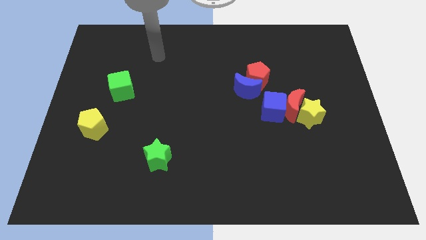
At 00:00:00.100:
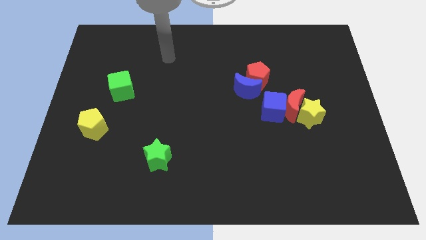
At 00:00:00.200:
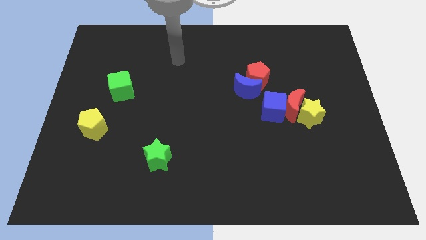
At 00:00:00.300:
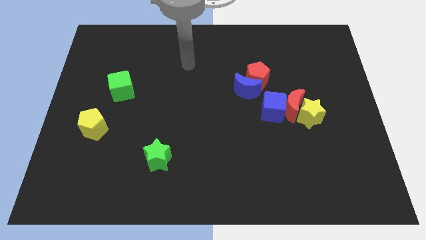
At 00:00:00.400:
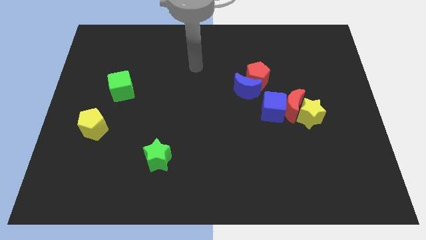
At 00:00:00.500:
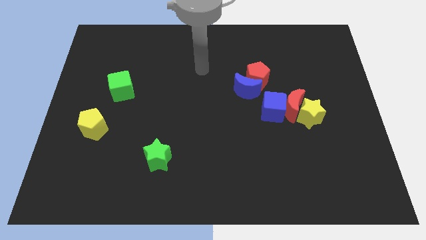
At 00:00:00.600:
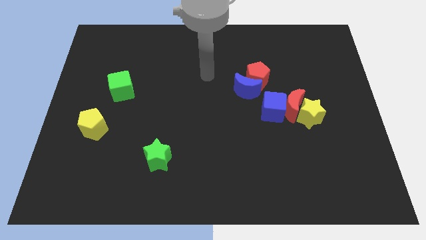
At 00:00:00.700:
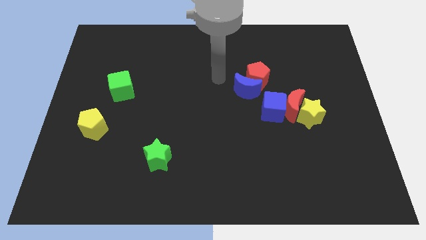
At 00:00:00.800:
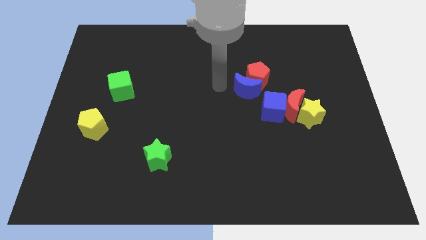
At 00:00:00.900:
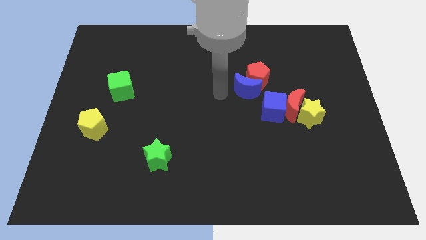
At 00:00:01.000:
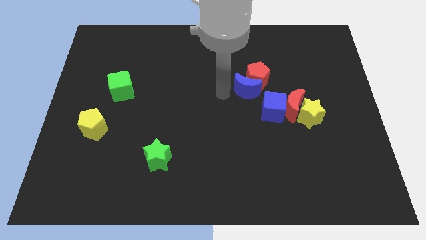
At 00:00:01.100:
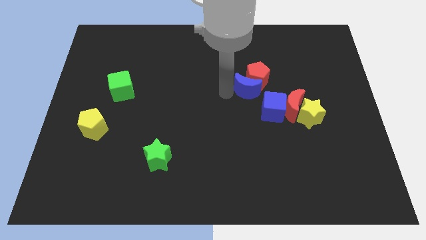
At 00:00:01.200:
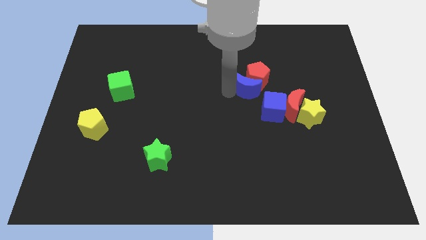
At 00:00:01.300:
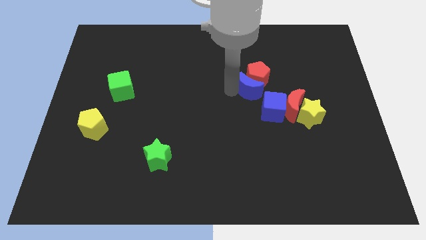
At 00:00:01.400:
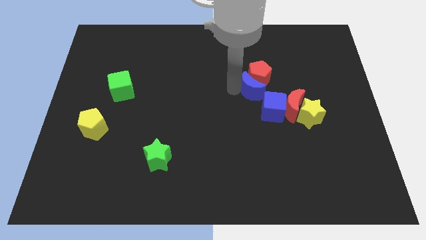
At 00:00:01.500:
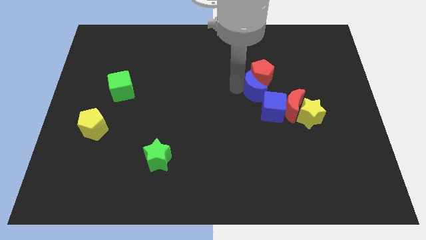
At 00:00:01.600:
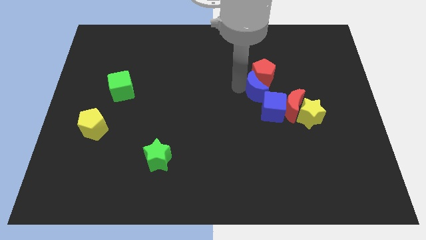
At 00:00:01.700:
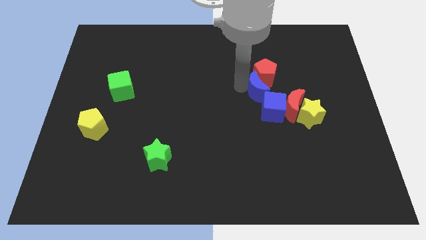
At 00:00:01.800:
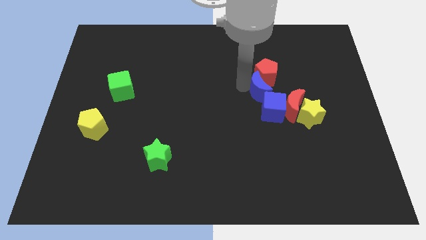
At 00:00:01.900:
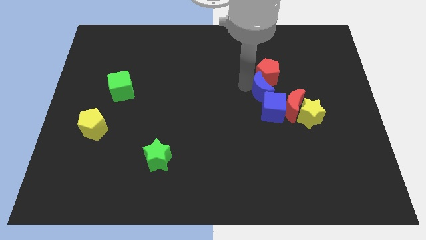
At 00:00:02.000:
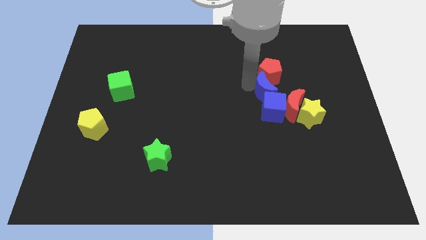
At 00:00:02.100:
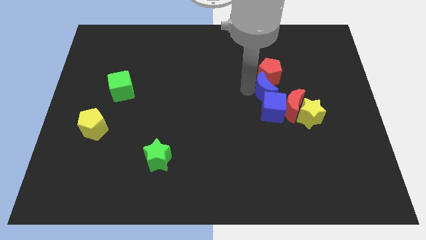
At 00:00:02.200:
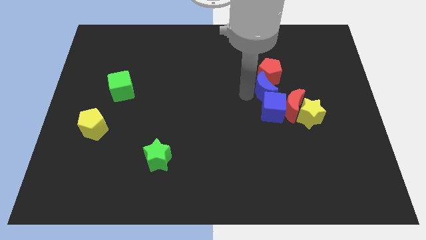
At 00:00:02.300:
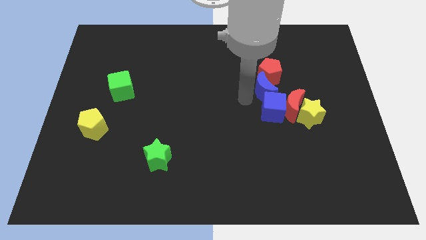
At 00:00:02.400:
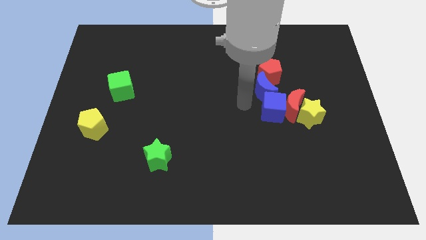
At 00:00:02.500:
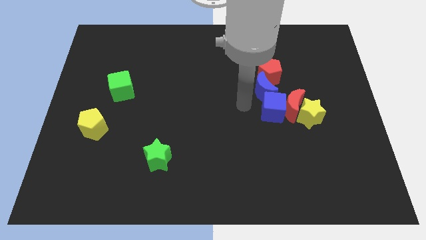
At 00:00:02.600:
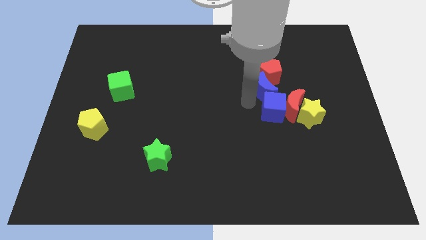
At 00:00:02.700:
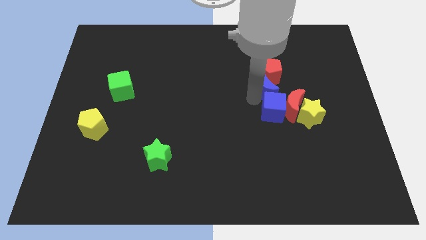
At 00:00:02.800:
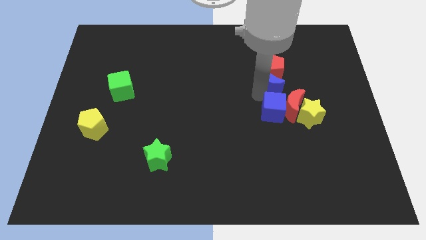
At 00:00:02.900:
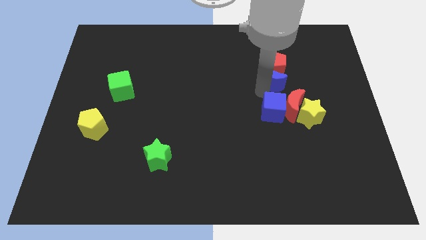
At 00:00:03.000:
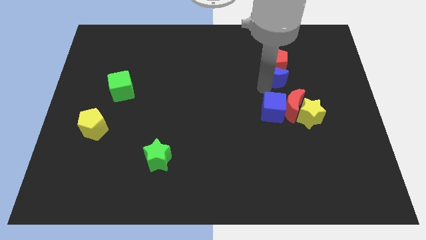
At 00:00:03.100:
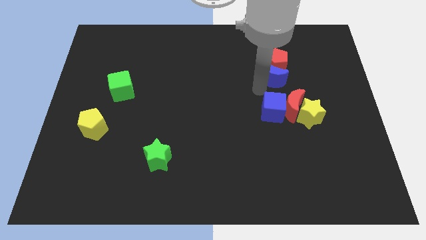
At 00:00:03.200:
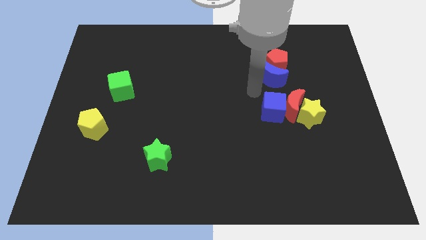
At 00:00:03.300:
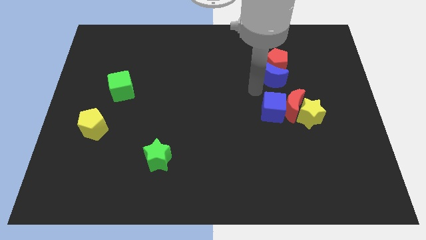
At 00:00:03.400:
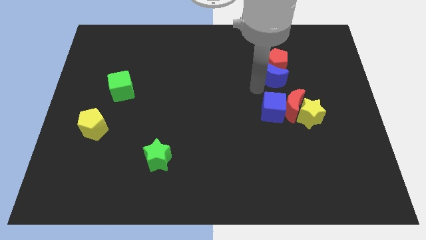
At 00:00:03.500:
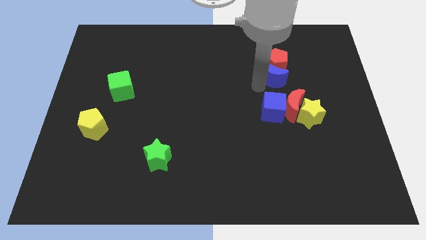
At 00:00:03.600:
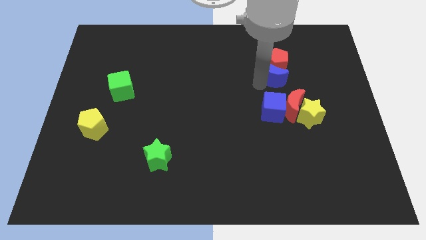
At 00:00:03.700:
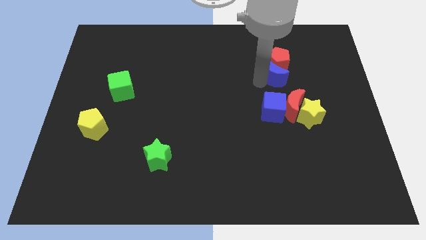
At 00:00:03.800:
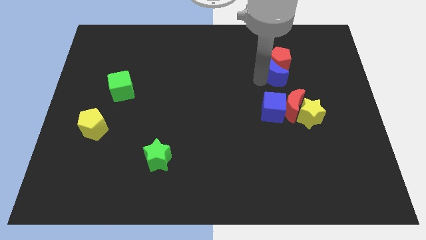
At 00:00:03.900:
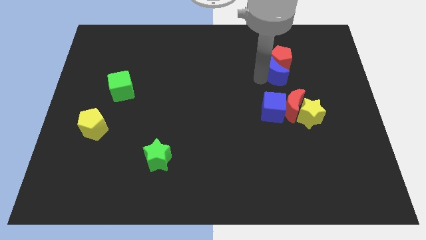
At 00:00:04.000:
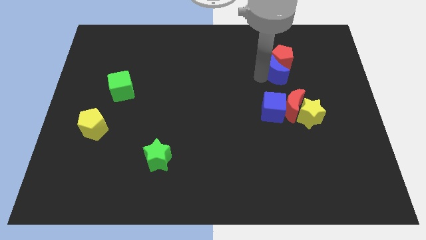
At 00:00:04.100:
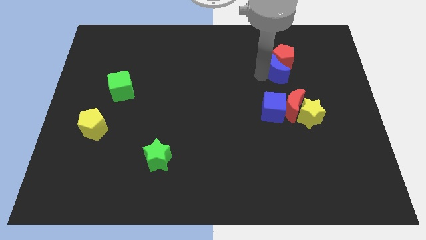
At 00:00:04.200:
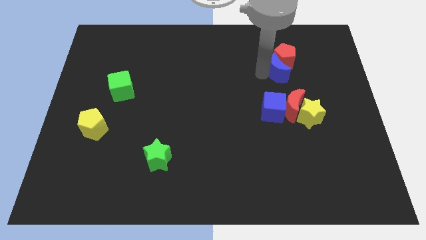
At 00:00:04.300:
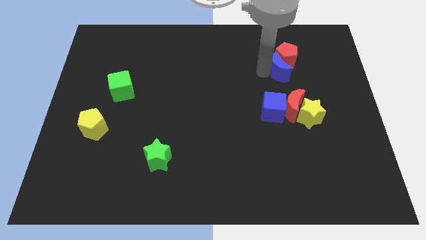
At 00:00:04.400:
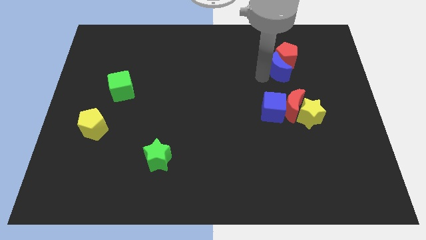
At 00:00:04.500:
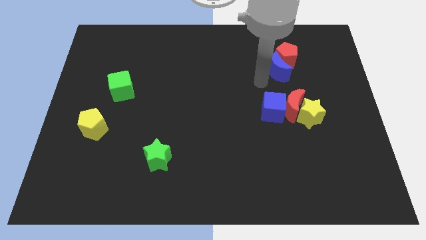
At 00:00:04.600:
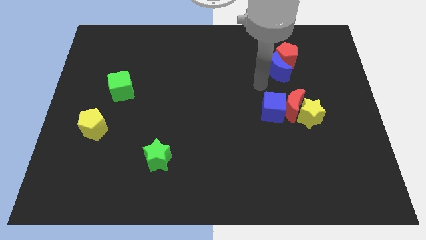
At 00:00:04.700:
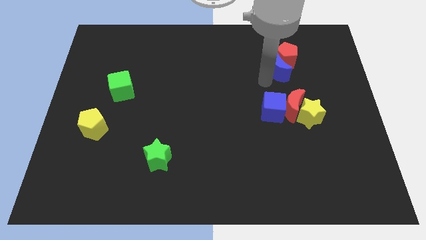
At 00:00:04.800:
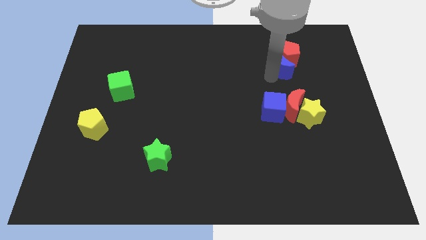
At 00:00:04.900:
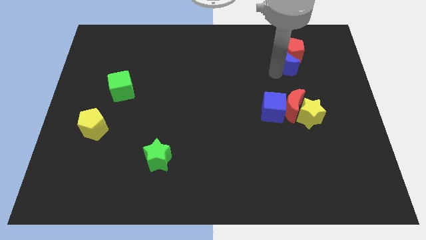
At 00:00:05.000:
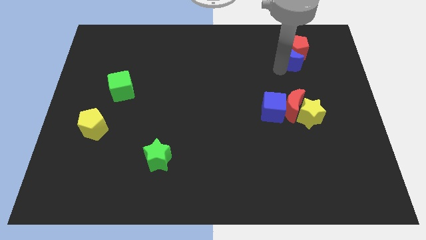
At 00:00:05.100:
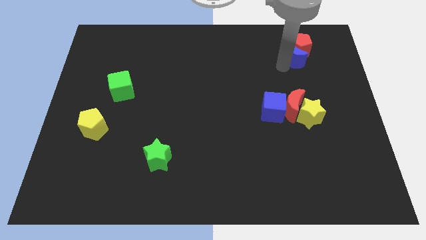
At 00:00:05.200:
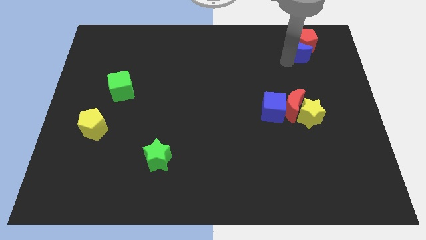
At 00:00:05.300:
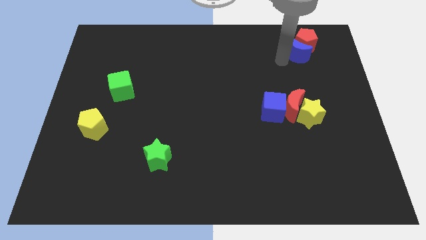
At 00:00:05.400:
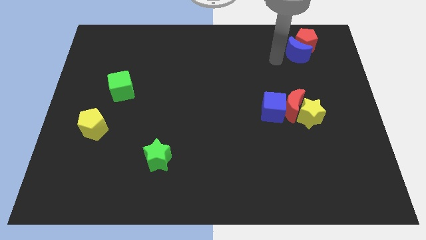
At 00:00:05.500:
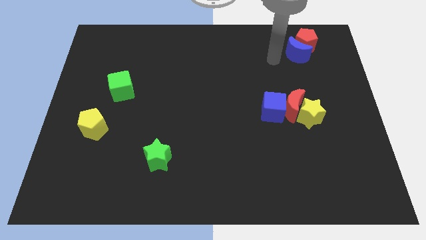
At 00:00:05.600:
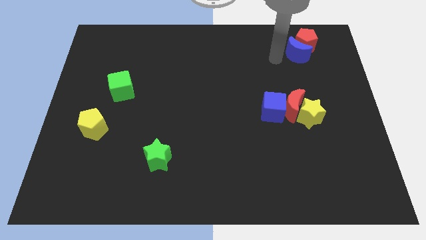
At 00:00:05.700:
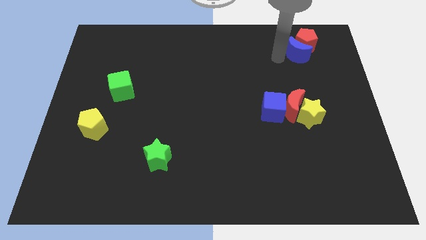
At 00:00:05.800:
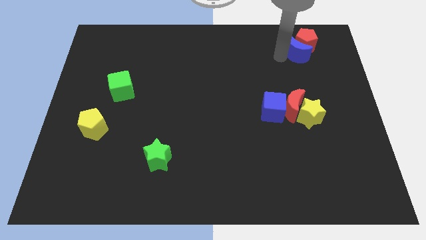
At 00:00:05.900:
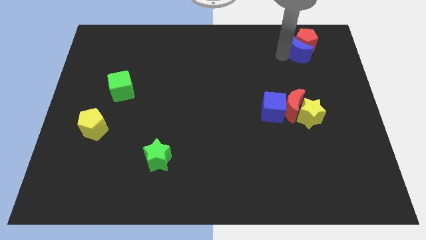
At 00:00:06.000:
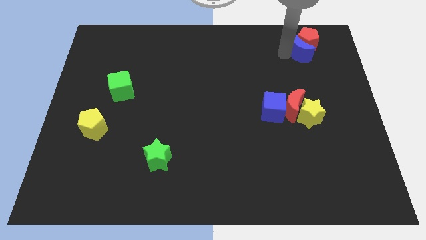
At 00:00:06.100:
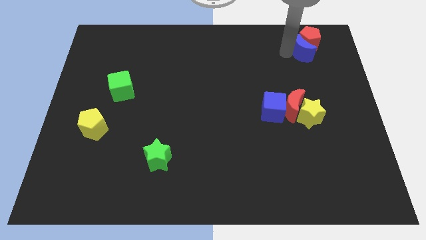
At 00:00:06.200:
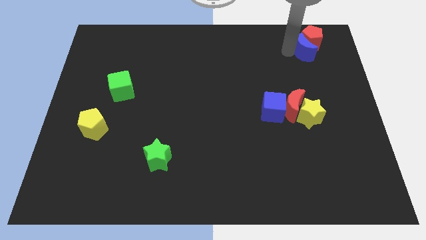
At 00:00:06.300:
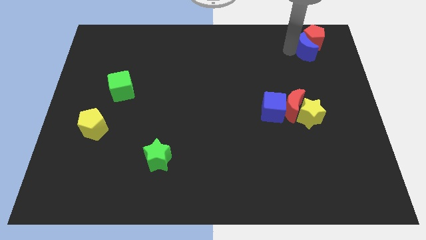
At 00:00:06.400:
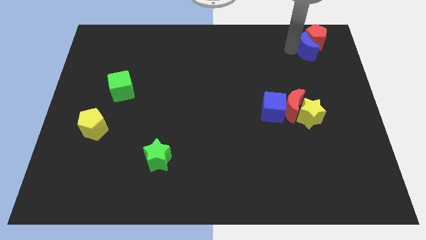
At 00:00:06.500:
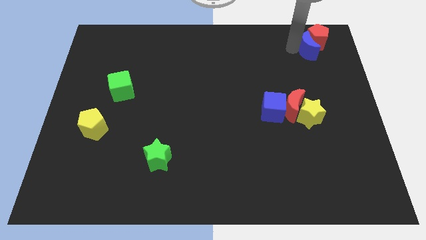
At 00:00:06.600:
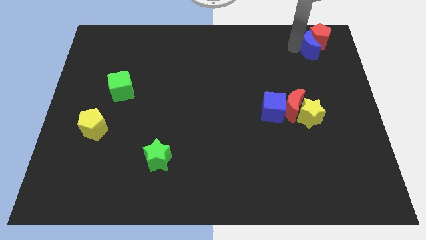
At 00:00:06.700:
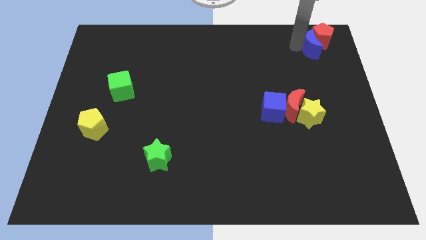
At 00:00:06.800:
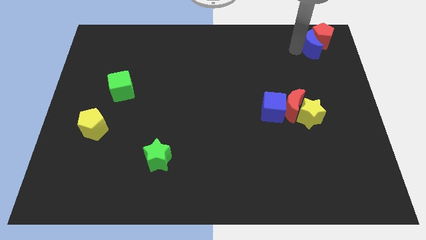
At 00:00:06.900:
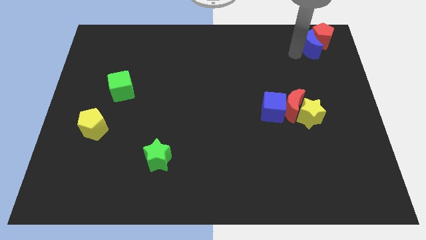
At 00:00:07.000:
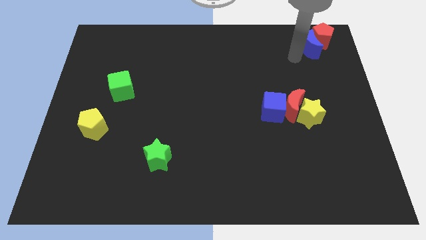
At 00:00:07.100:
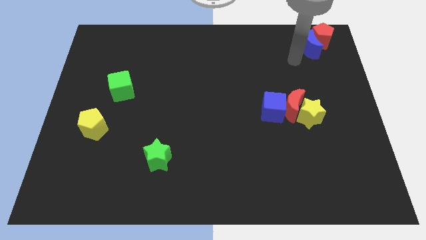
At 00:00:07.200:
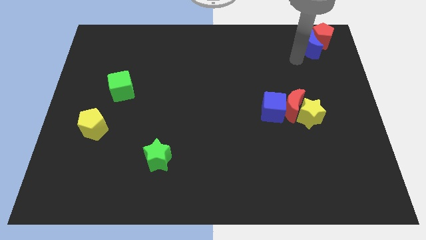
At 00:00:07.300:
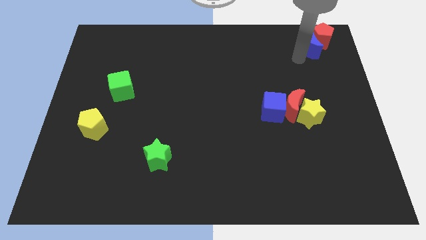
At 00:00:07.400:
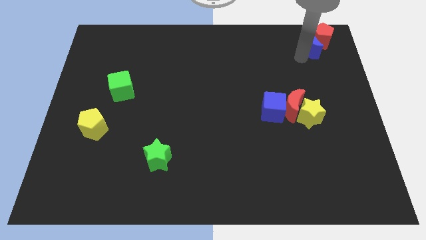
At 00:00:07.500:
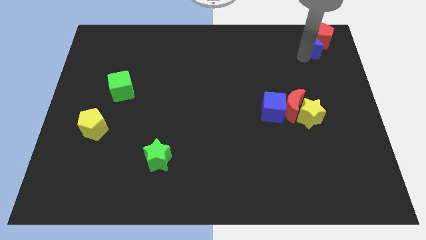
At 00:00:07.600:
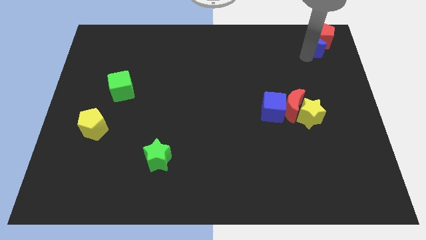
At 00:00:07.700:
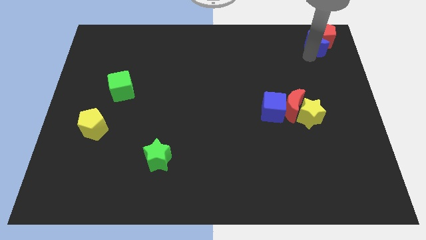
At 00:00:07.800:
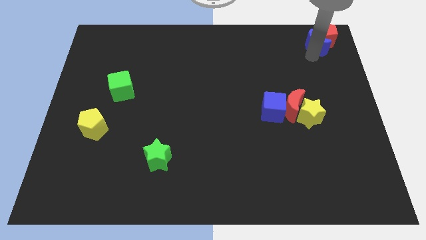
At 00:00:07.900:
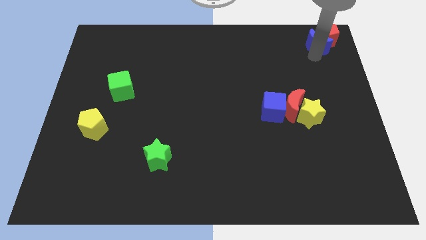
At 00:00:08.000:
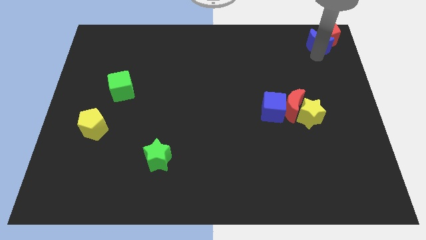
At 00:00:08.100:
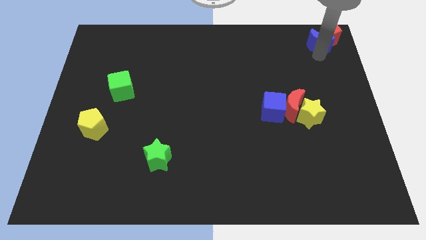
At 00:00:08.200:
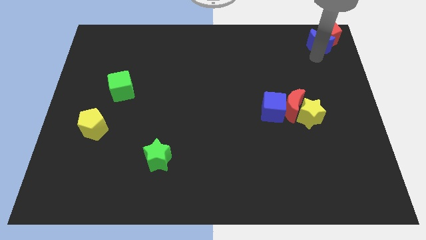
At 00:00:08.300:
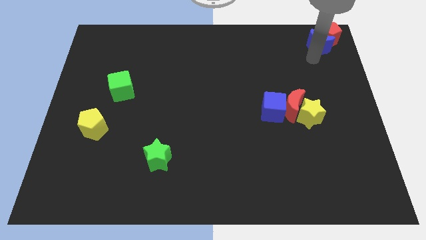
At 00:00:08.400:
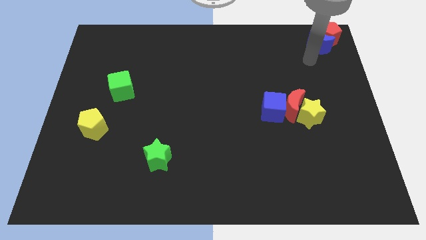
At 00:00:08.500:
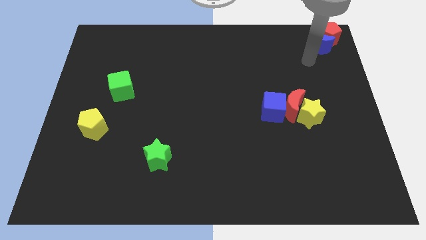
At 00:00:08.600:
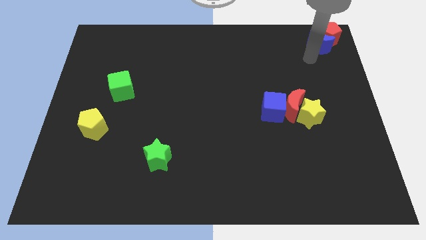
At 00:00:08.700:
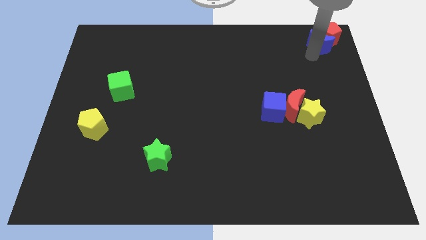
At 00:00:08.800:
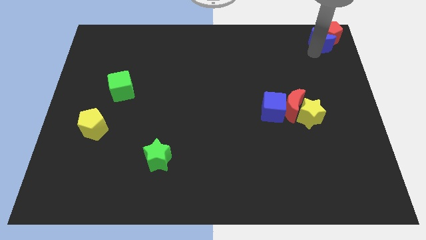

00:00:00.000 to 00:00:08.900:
push the blue moon to the top right corner
